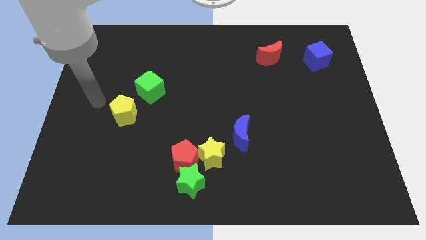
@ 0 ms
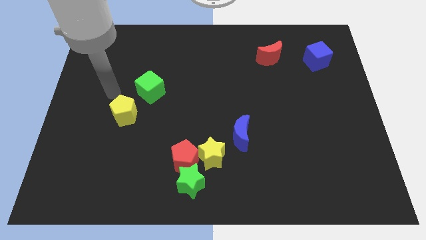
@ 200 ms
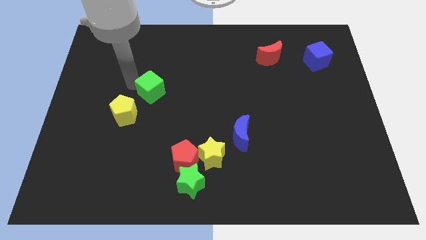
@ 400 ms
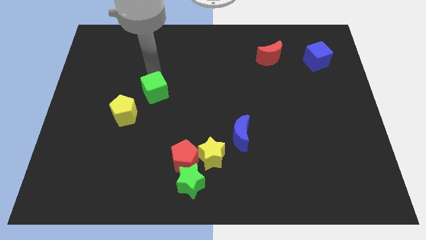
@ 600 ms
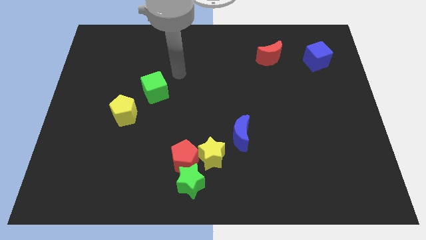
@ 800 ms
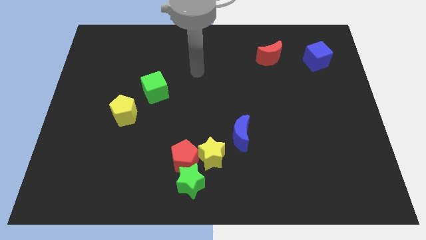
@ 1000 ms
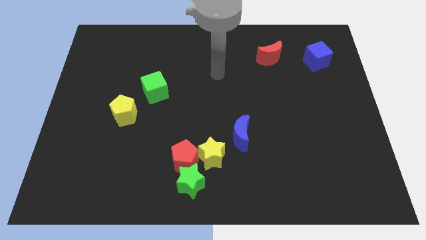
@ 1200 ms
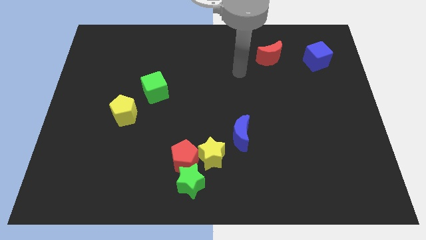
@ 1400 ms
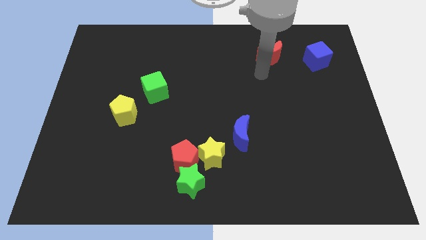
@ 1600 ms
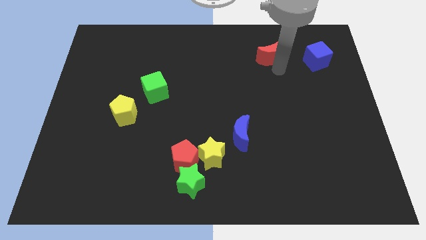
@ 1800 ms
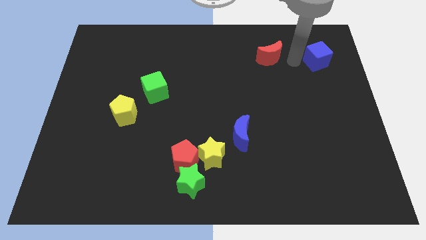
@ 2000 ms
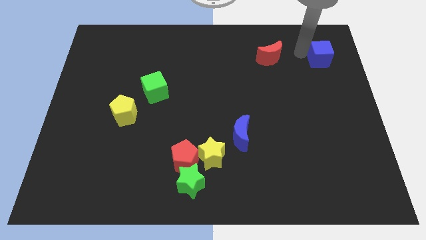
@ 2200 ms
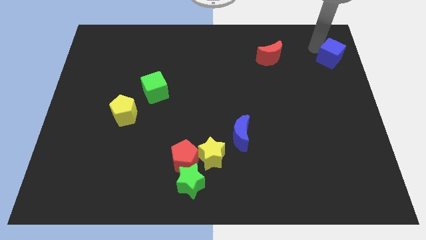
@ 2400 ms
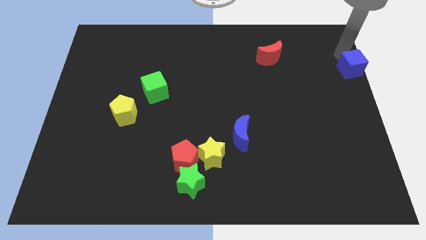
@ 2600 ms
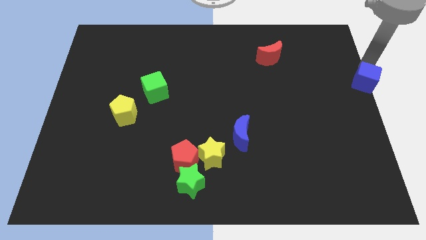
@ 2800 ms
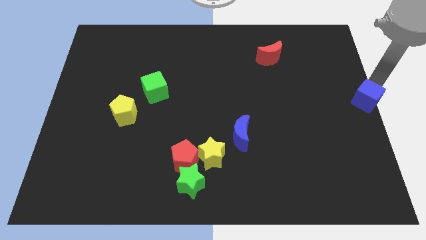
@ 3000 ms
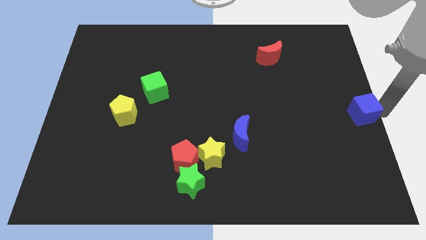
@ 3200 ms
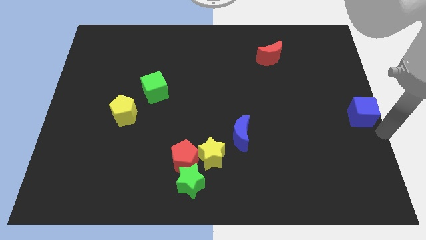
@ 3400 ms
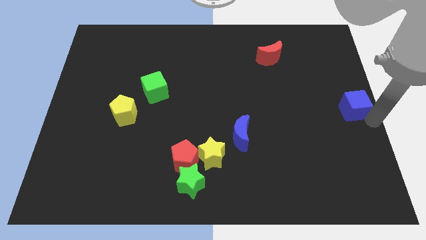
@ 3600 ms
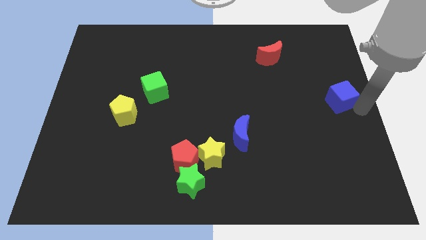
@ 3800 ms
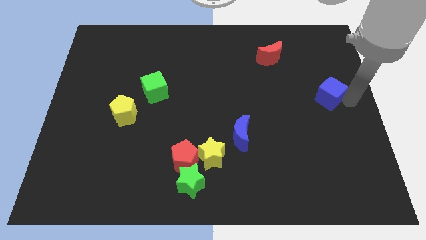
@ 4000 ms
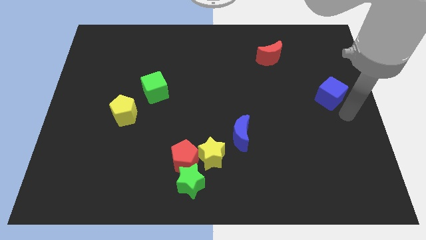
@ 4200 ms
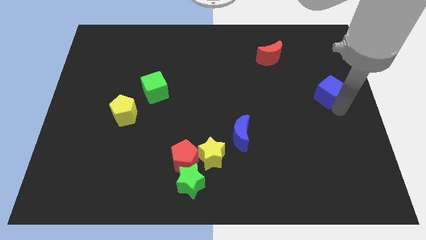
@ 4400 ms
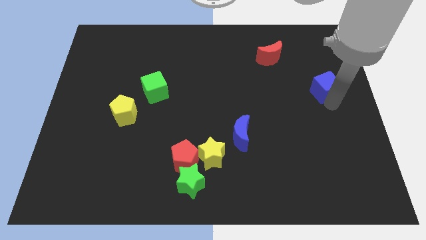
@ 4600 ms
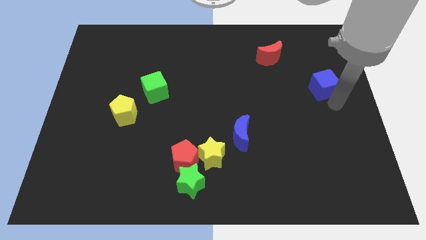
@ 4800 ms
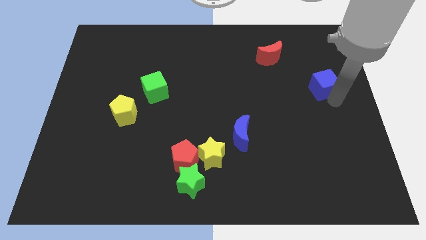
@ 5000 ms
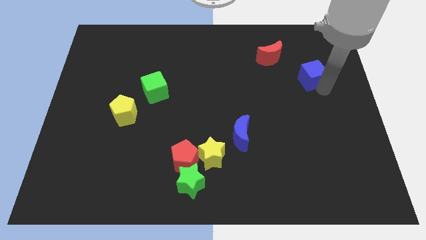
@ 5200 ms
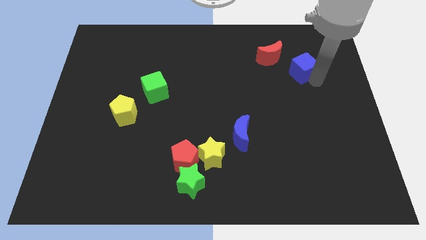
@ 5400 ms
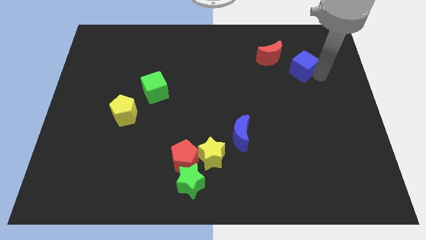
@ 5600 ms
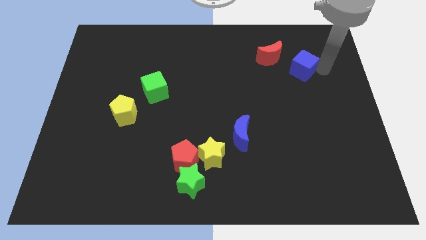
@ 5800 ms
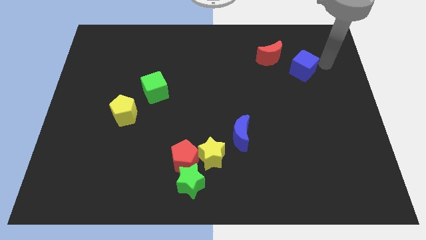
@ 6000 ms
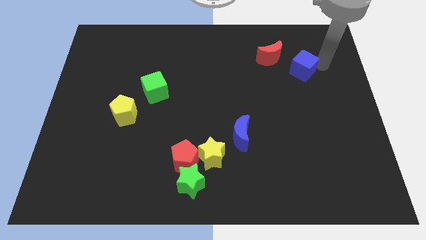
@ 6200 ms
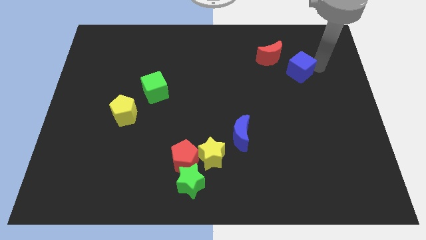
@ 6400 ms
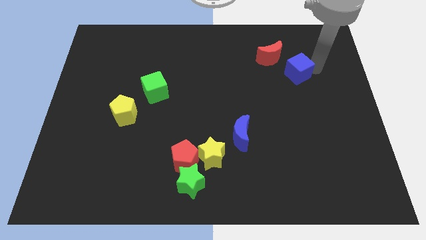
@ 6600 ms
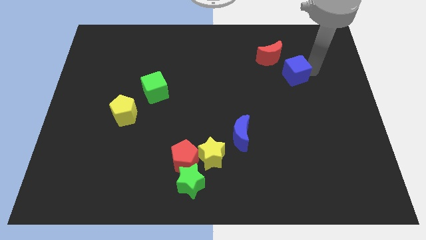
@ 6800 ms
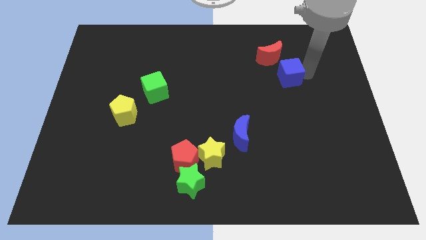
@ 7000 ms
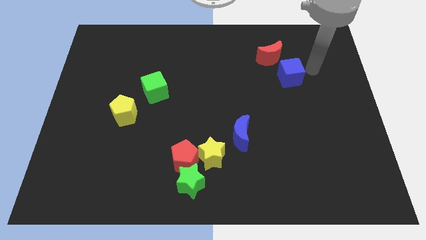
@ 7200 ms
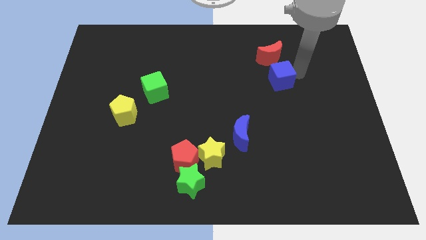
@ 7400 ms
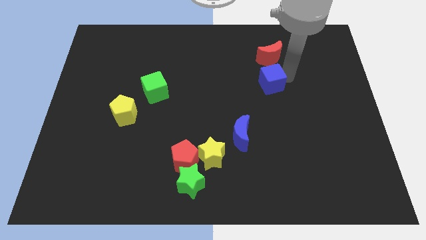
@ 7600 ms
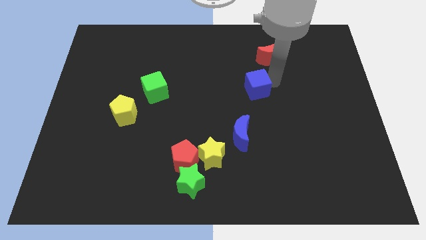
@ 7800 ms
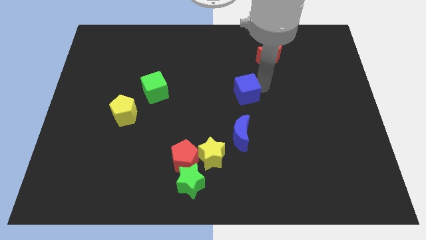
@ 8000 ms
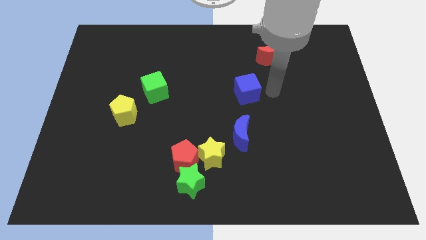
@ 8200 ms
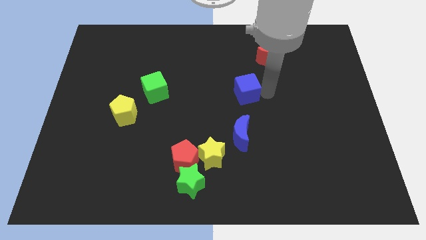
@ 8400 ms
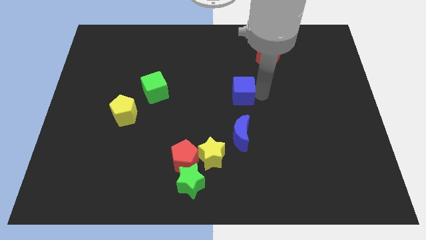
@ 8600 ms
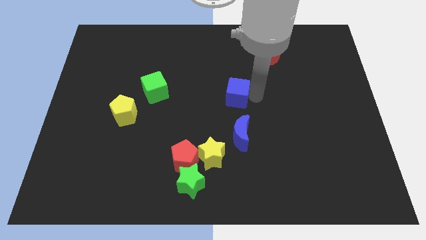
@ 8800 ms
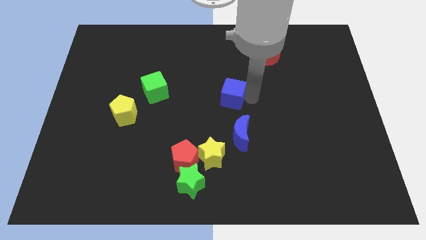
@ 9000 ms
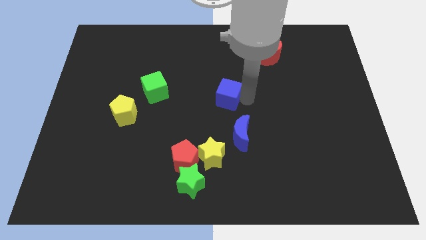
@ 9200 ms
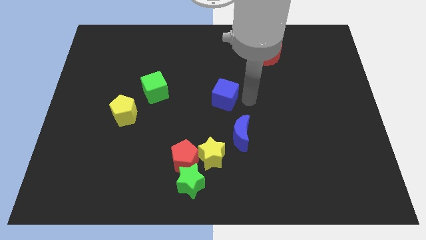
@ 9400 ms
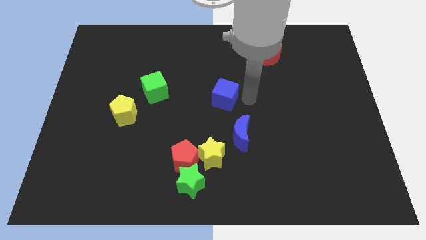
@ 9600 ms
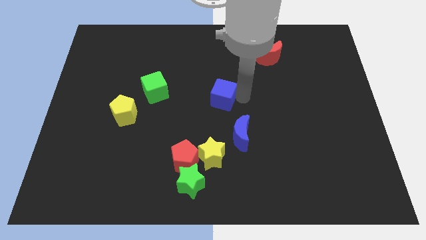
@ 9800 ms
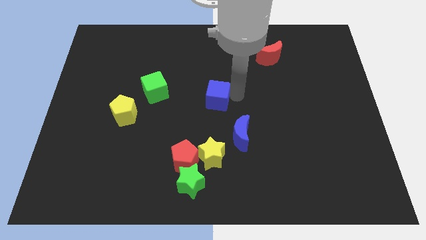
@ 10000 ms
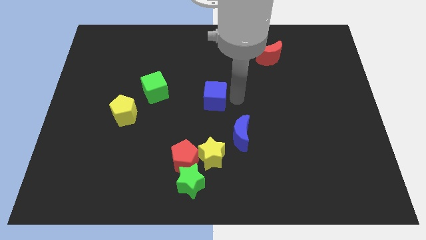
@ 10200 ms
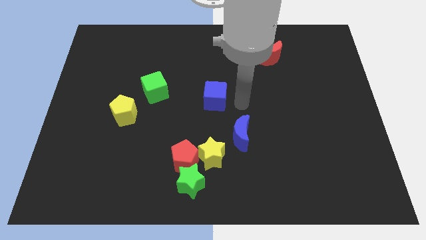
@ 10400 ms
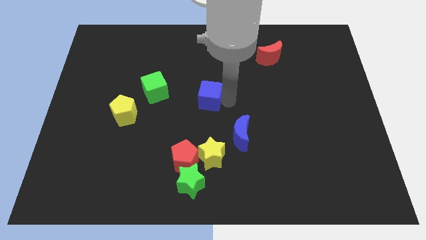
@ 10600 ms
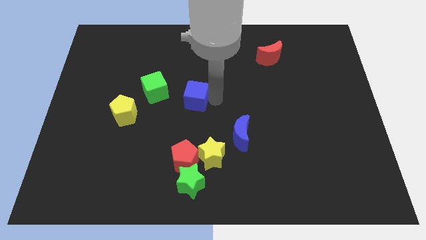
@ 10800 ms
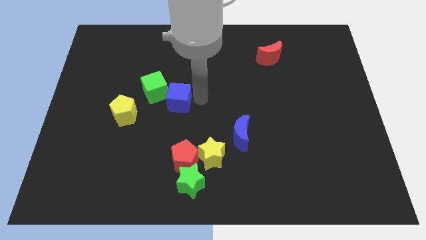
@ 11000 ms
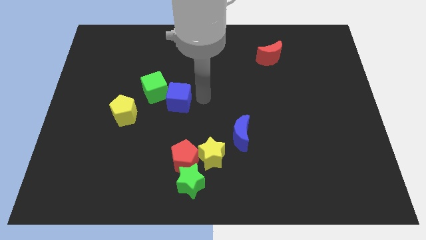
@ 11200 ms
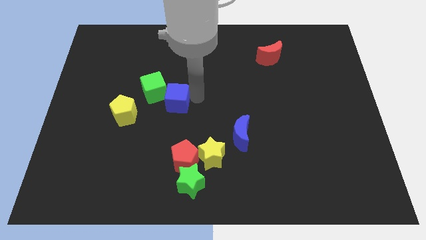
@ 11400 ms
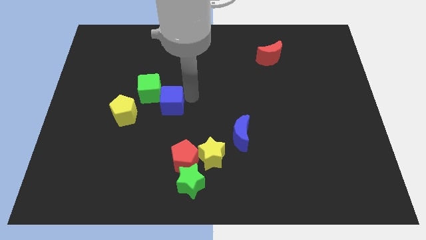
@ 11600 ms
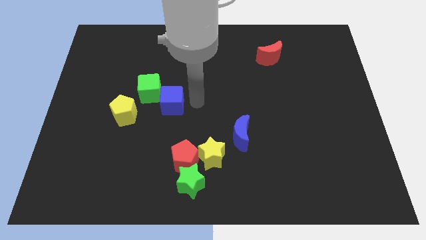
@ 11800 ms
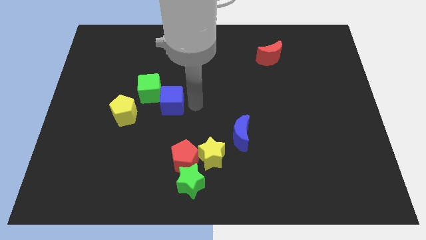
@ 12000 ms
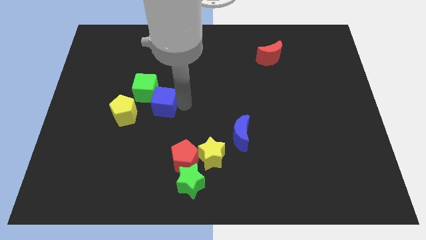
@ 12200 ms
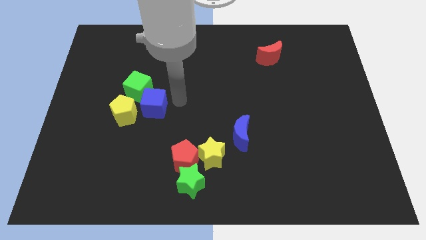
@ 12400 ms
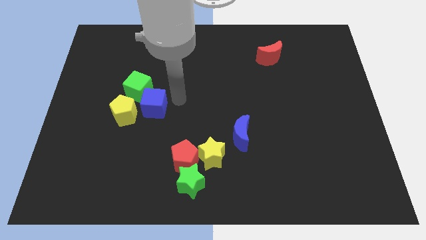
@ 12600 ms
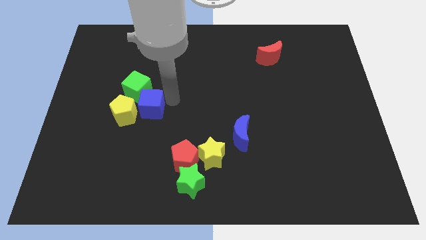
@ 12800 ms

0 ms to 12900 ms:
move the blue cube to the yellow pentagon
